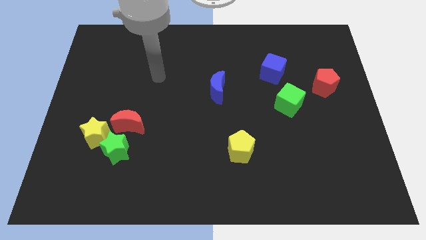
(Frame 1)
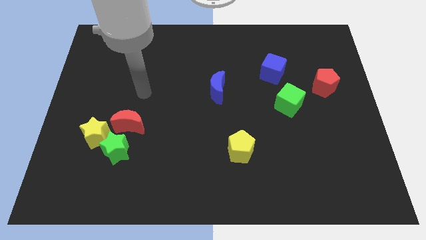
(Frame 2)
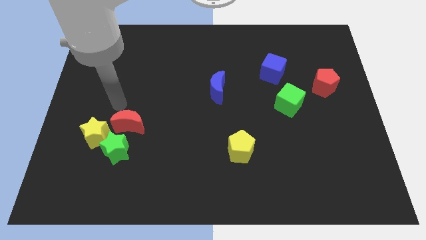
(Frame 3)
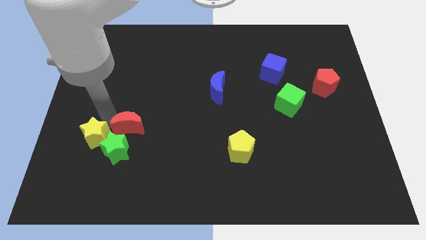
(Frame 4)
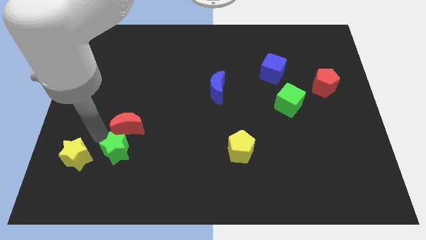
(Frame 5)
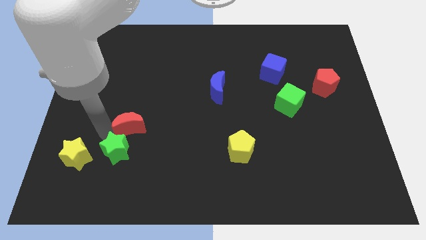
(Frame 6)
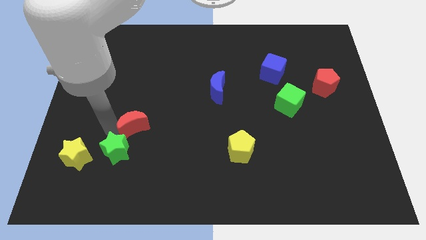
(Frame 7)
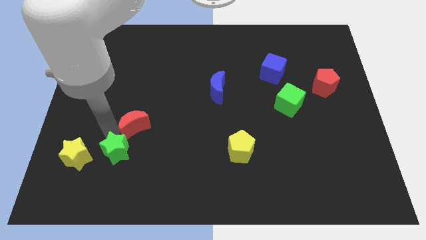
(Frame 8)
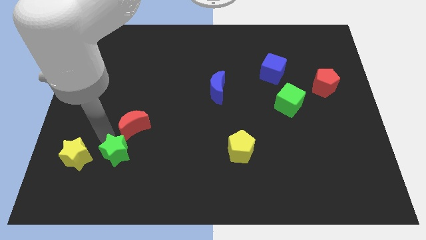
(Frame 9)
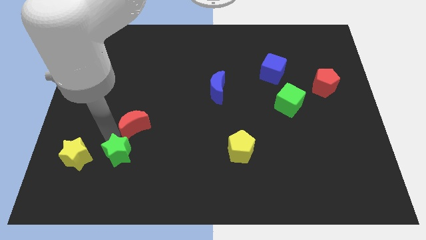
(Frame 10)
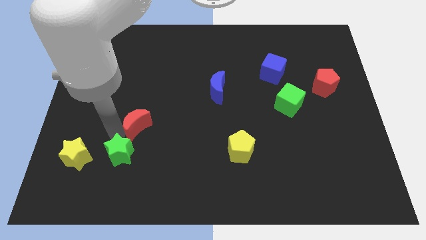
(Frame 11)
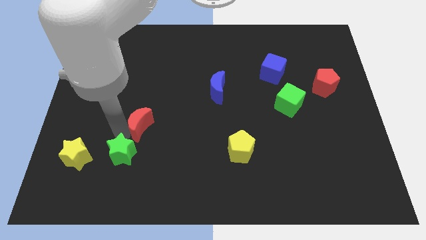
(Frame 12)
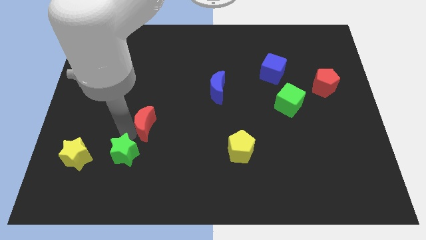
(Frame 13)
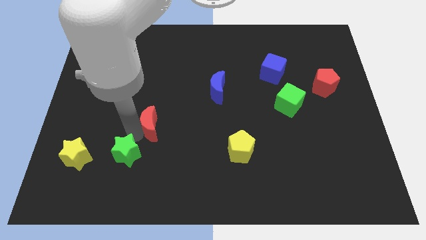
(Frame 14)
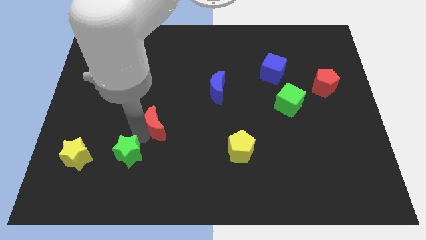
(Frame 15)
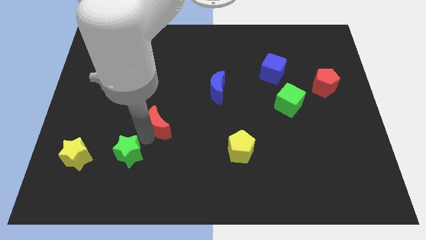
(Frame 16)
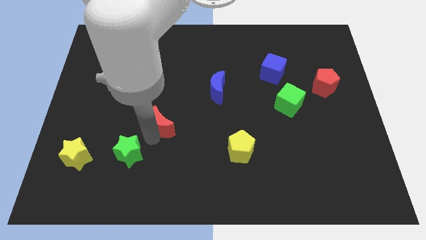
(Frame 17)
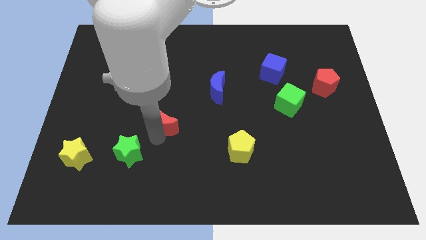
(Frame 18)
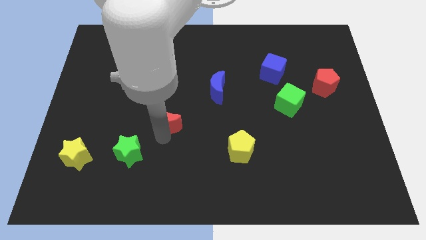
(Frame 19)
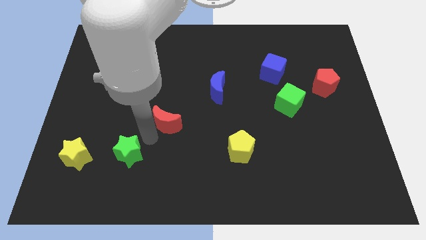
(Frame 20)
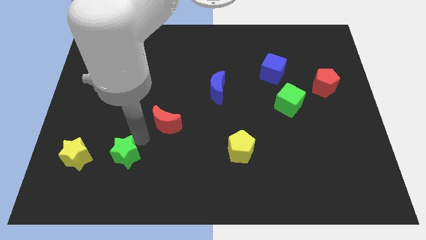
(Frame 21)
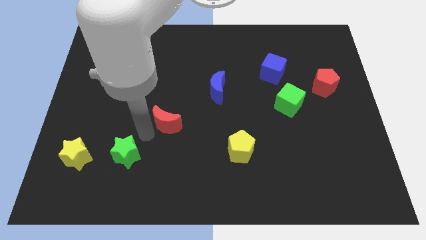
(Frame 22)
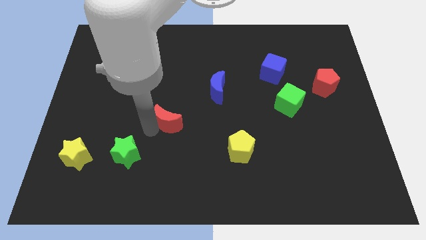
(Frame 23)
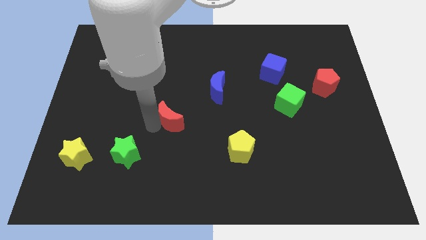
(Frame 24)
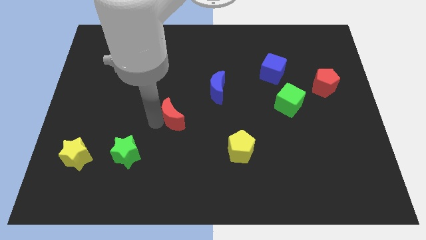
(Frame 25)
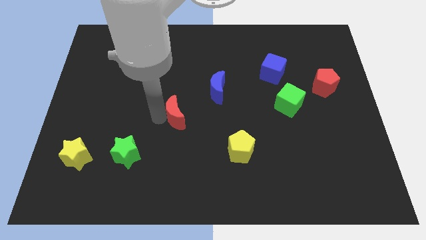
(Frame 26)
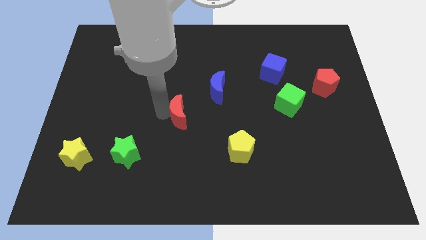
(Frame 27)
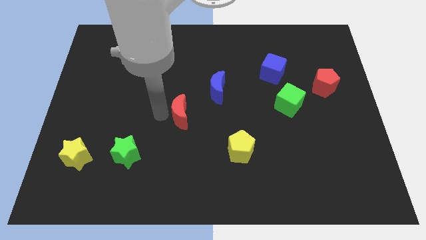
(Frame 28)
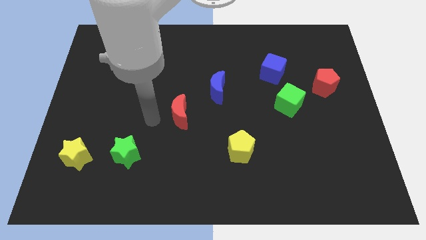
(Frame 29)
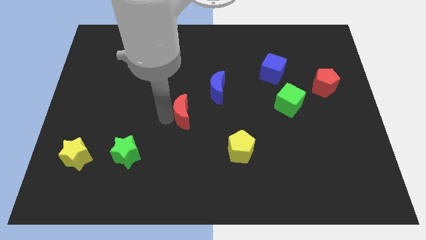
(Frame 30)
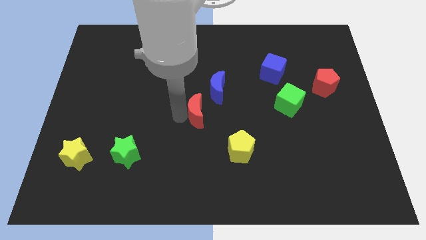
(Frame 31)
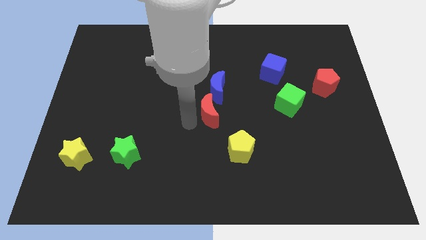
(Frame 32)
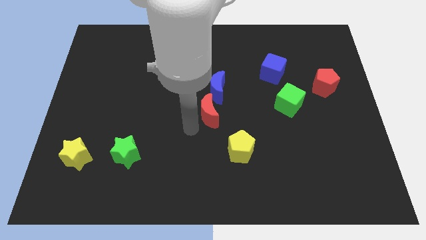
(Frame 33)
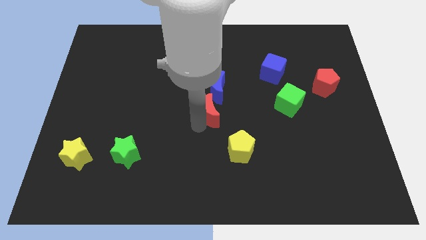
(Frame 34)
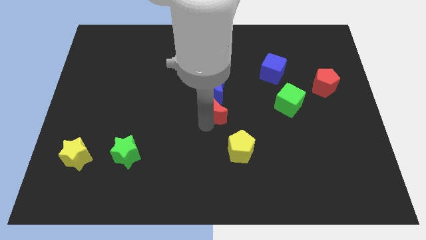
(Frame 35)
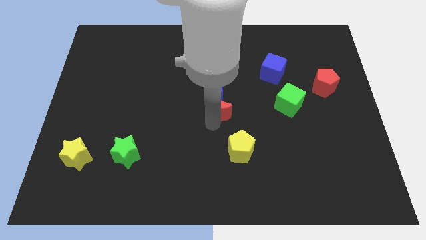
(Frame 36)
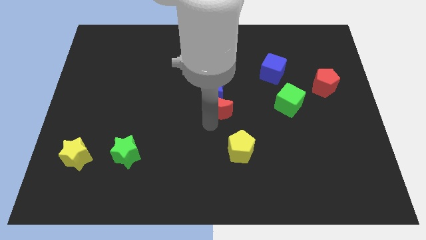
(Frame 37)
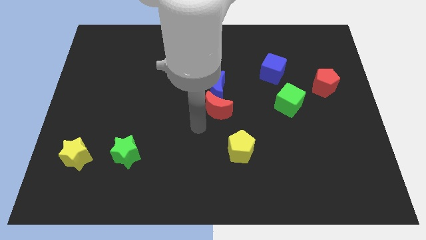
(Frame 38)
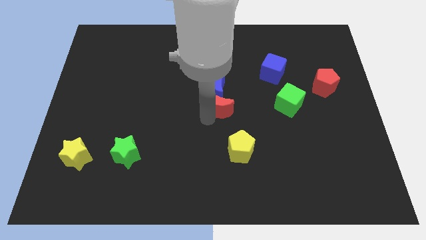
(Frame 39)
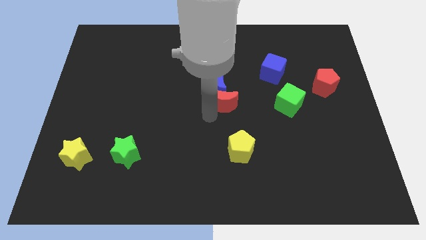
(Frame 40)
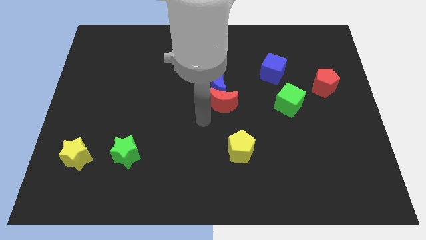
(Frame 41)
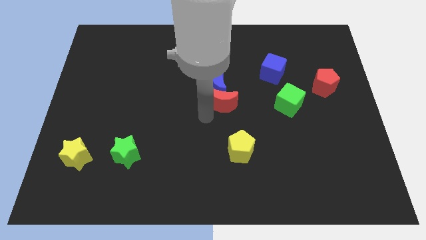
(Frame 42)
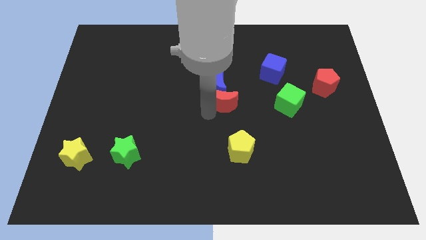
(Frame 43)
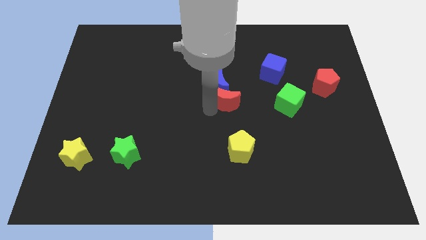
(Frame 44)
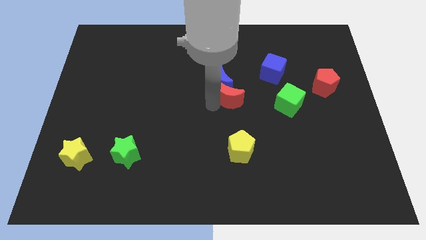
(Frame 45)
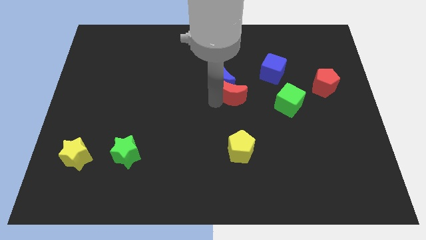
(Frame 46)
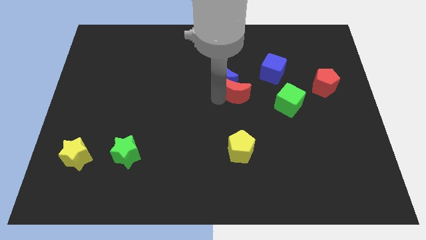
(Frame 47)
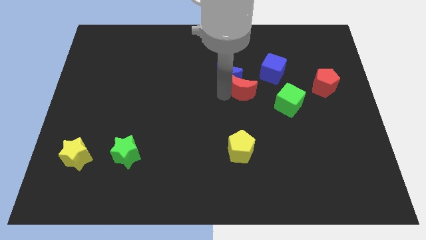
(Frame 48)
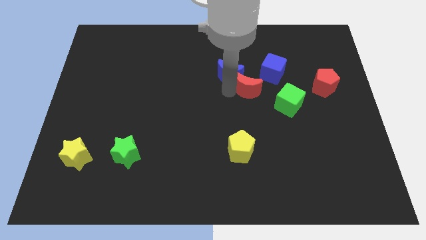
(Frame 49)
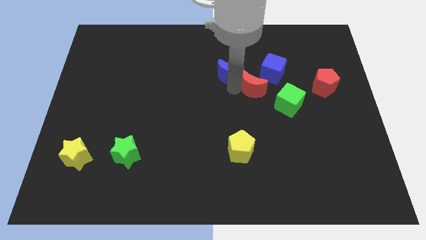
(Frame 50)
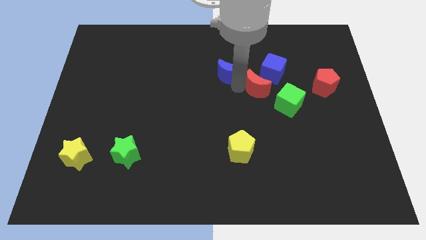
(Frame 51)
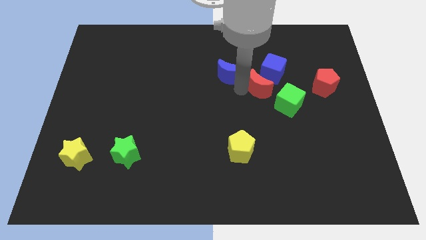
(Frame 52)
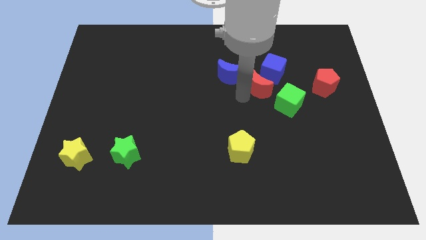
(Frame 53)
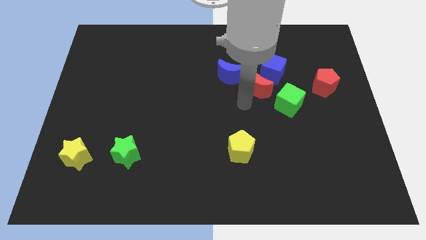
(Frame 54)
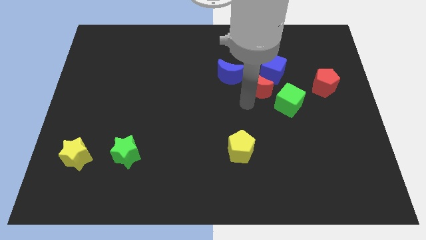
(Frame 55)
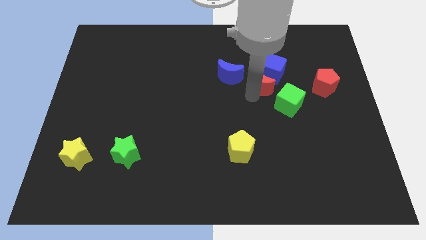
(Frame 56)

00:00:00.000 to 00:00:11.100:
move the red moon next to the blue cube

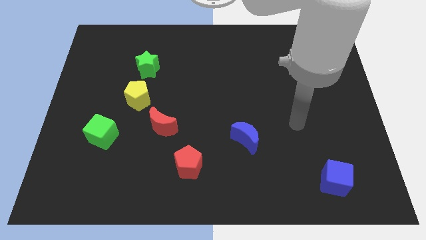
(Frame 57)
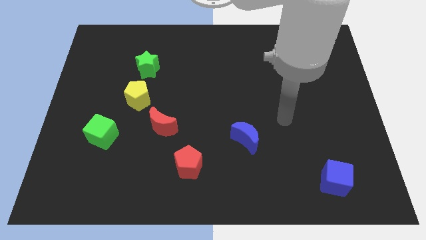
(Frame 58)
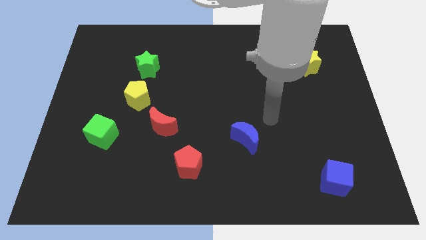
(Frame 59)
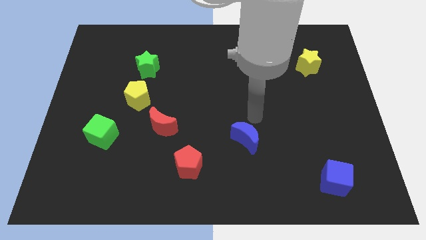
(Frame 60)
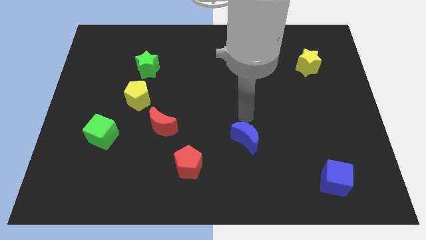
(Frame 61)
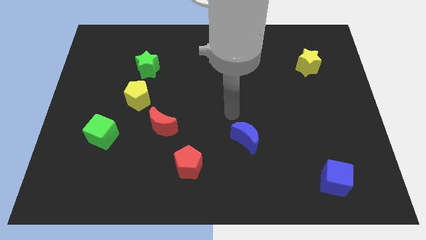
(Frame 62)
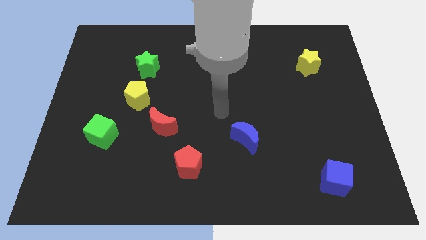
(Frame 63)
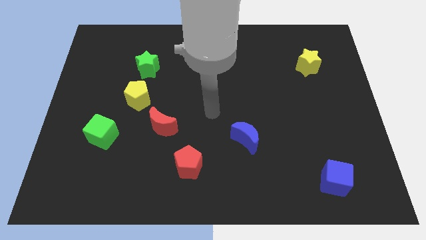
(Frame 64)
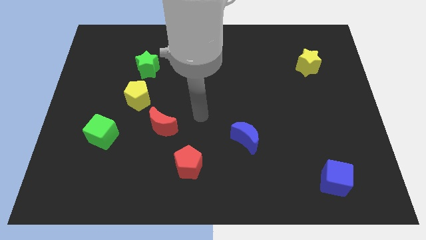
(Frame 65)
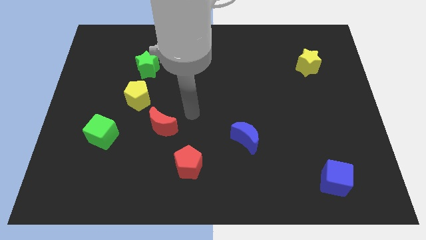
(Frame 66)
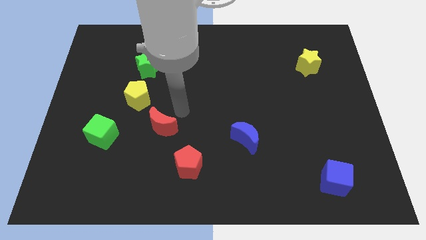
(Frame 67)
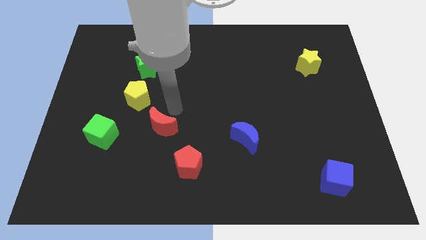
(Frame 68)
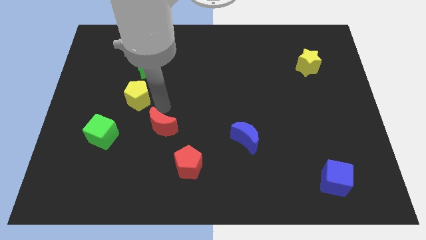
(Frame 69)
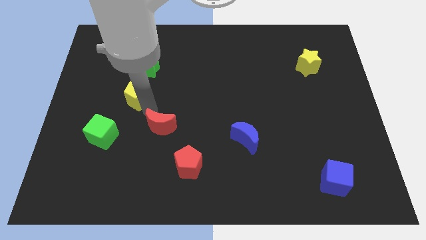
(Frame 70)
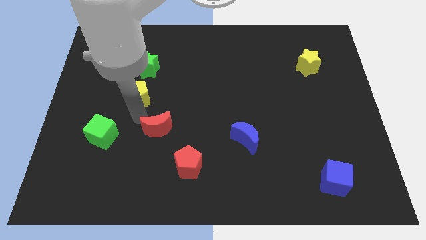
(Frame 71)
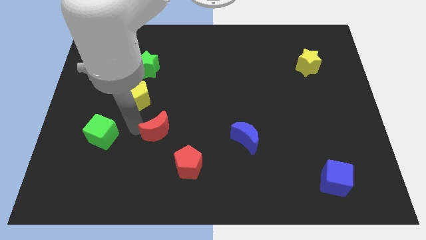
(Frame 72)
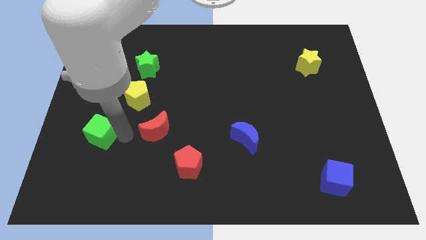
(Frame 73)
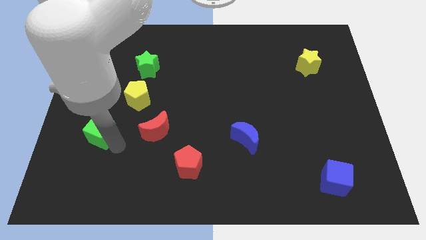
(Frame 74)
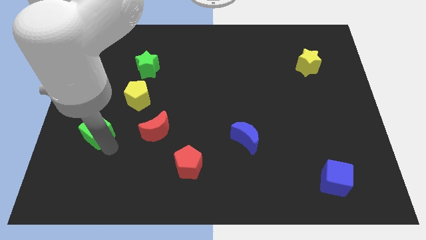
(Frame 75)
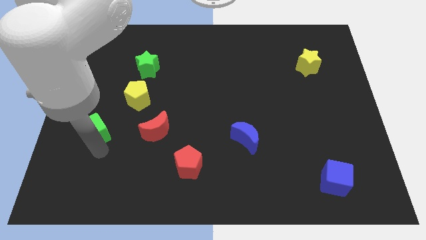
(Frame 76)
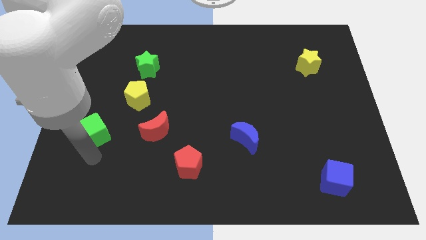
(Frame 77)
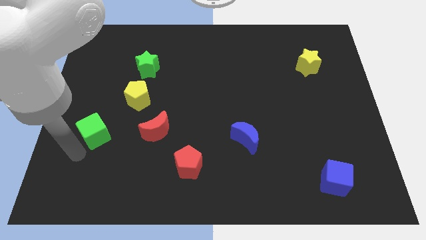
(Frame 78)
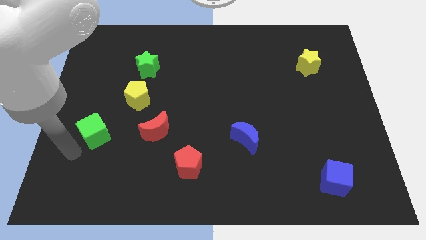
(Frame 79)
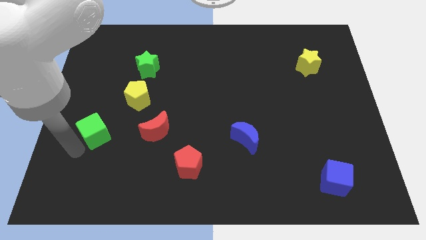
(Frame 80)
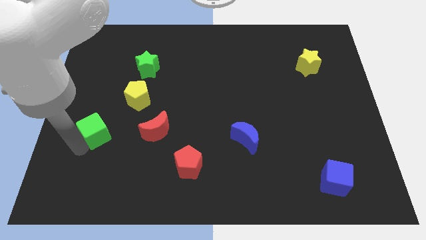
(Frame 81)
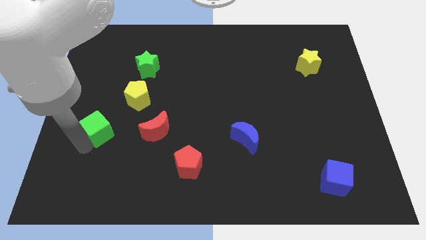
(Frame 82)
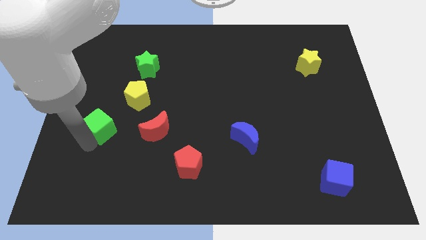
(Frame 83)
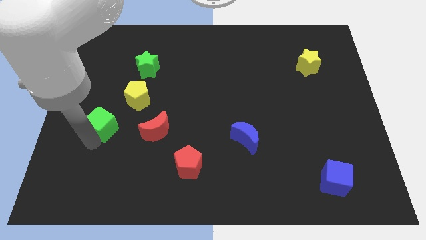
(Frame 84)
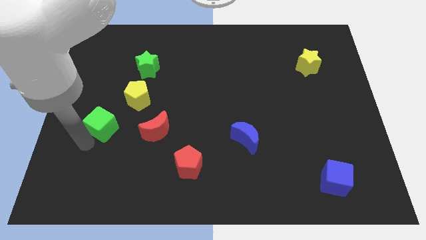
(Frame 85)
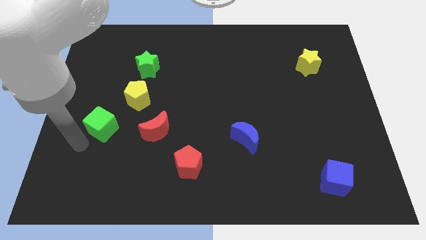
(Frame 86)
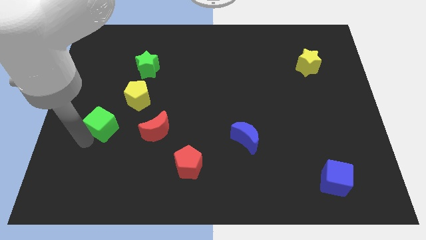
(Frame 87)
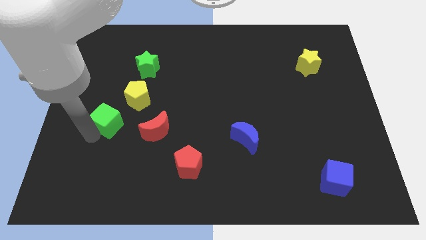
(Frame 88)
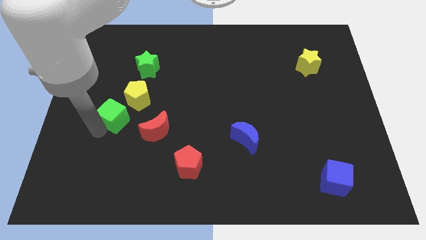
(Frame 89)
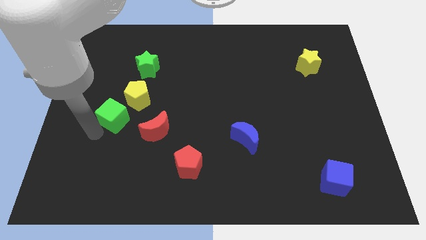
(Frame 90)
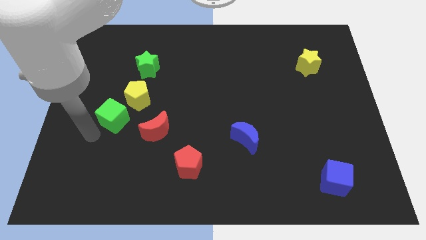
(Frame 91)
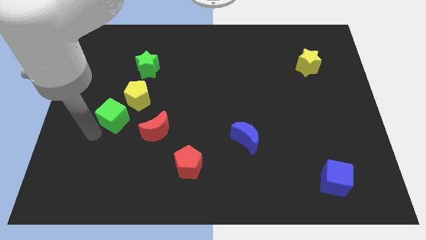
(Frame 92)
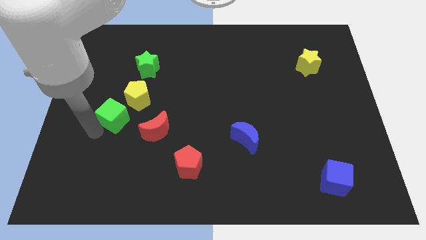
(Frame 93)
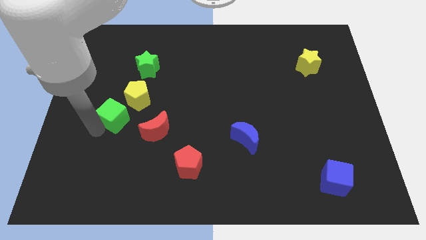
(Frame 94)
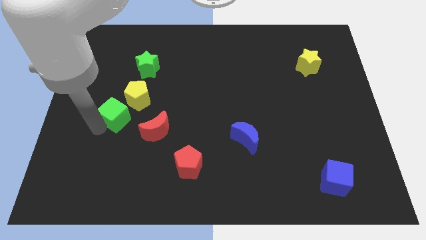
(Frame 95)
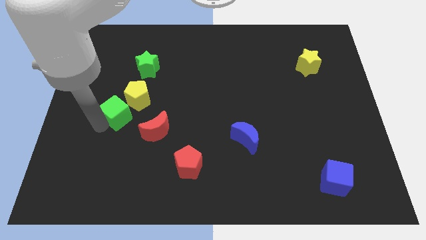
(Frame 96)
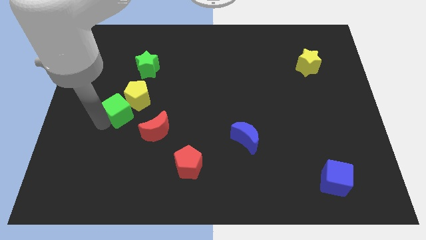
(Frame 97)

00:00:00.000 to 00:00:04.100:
put the green cube towards the yellow pentagon
